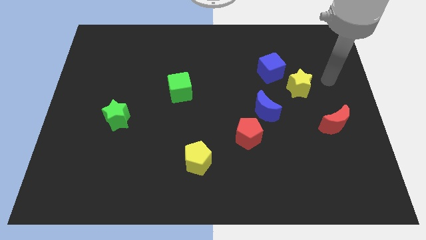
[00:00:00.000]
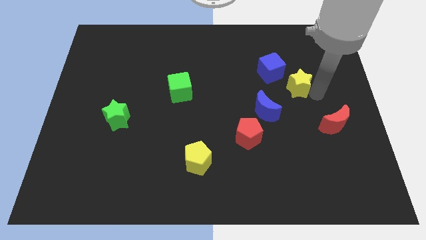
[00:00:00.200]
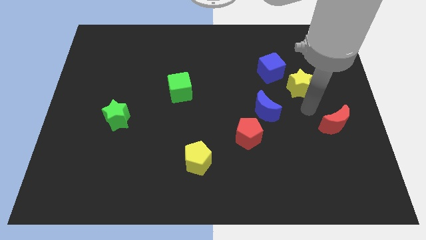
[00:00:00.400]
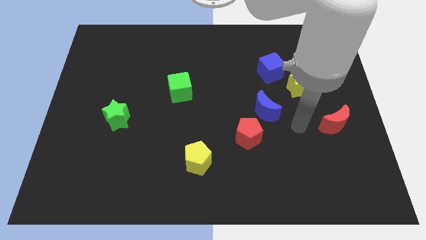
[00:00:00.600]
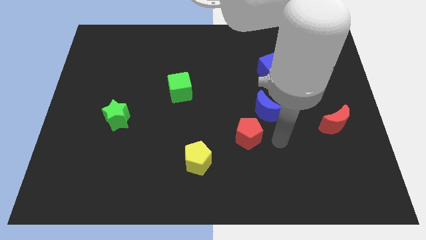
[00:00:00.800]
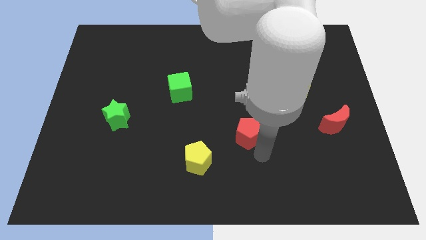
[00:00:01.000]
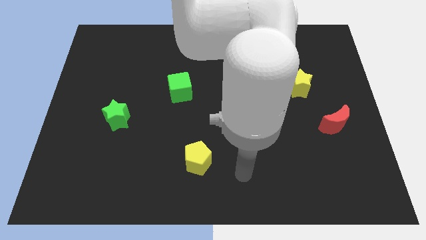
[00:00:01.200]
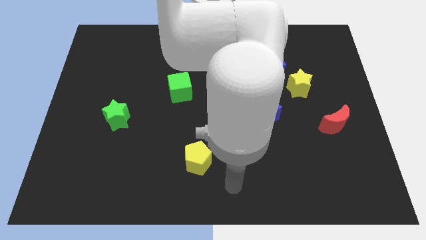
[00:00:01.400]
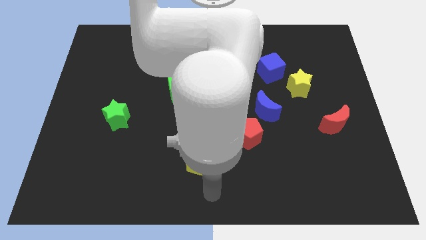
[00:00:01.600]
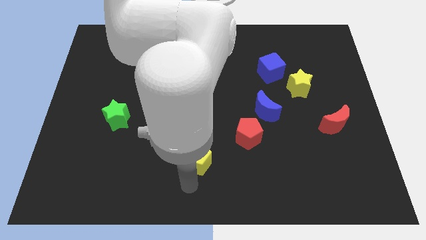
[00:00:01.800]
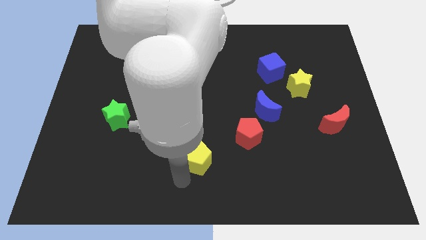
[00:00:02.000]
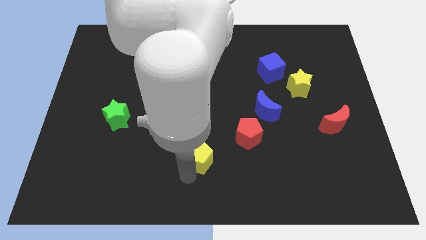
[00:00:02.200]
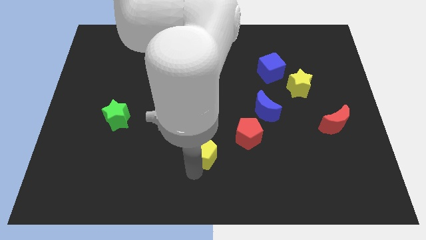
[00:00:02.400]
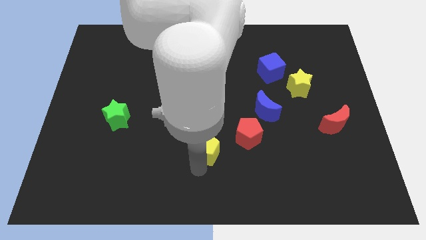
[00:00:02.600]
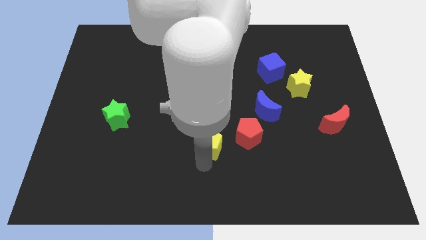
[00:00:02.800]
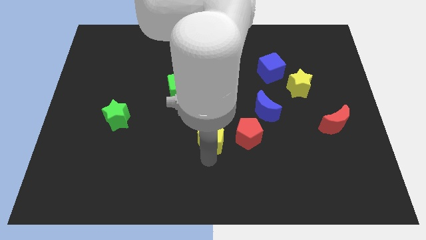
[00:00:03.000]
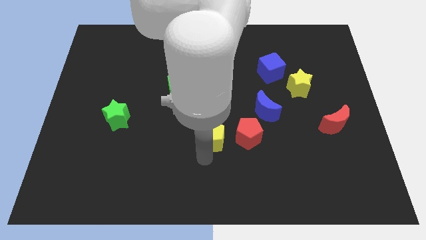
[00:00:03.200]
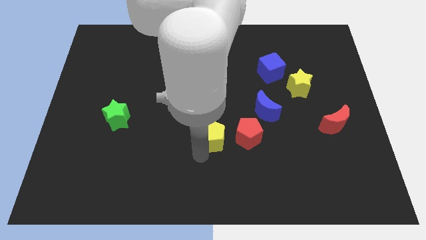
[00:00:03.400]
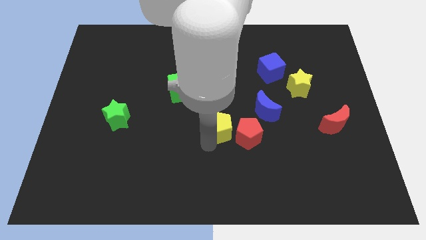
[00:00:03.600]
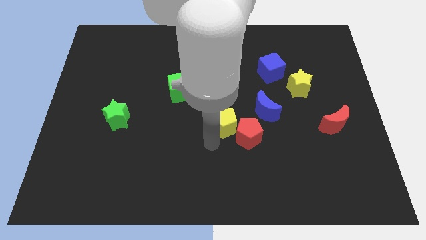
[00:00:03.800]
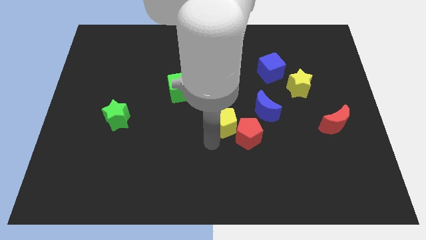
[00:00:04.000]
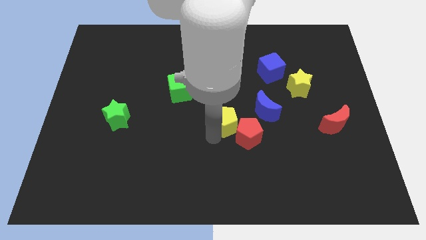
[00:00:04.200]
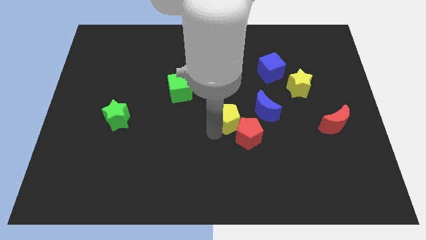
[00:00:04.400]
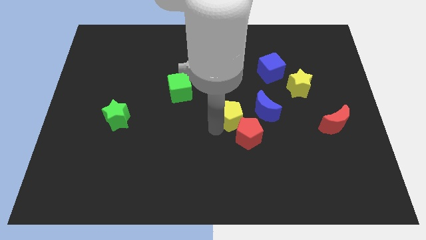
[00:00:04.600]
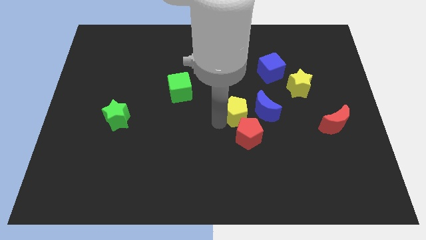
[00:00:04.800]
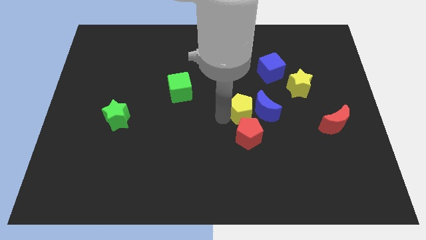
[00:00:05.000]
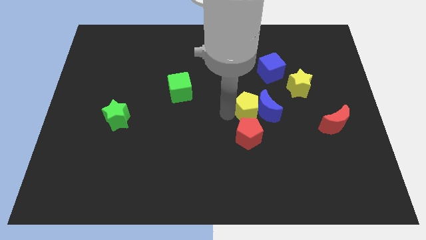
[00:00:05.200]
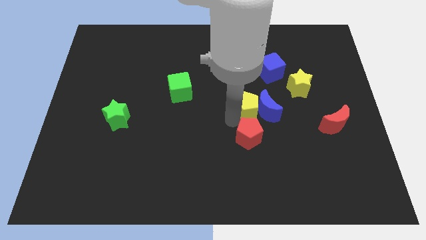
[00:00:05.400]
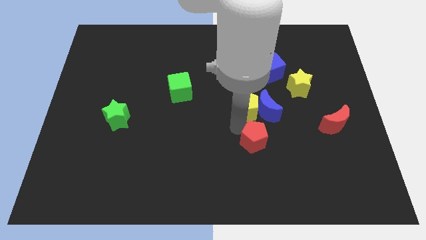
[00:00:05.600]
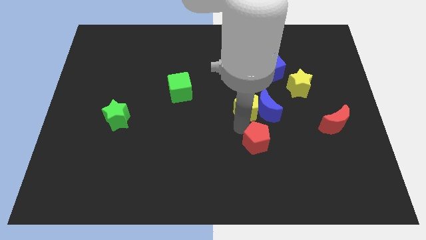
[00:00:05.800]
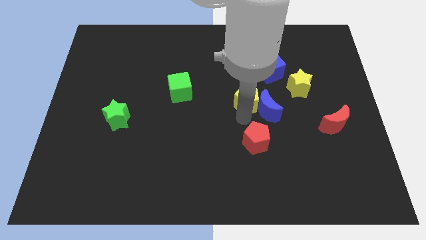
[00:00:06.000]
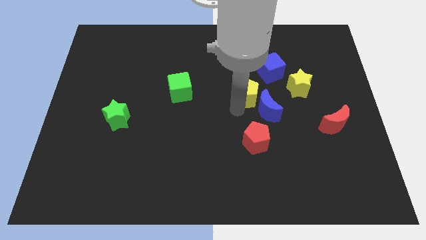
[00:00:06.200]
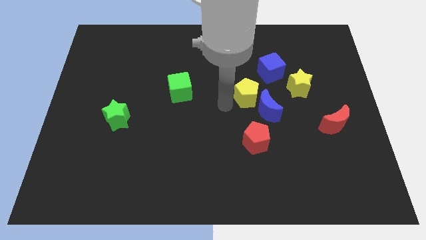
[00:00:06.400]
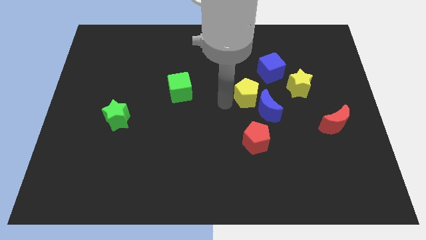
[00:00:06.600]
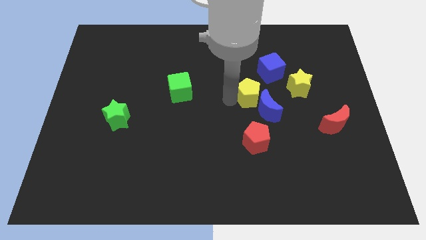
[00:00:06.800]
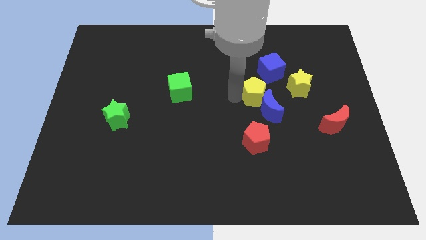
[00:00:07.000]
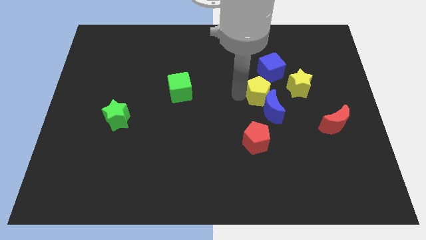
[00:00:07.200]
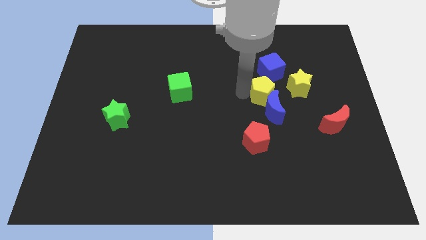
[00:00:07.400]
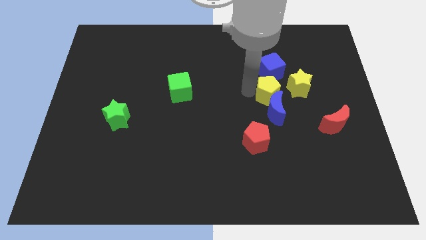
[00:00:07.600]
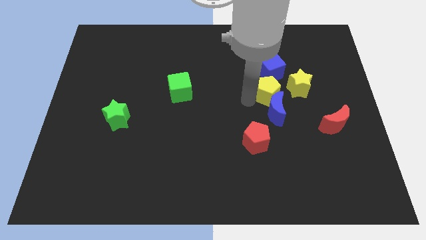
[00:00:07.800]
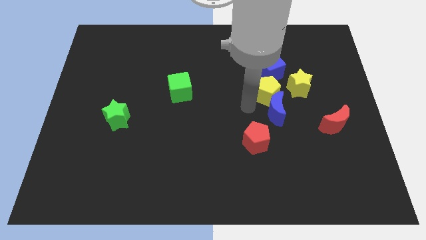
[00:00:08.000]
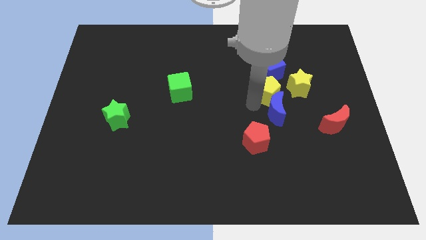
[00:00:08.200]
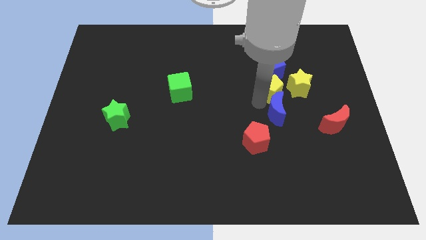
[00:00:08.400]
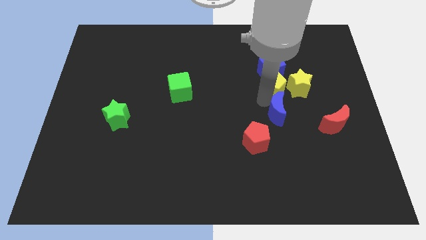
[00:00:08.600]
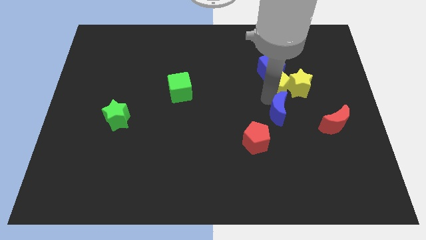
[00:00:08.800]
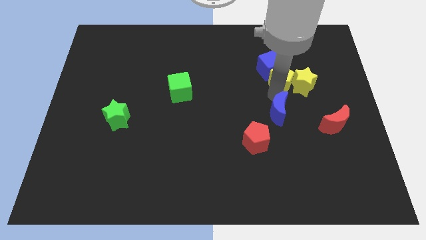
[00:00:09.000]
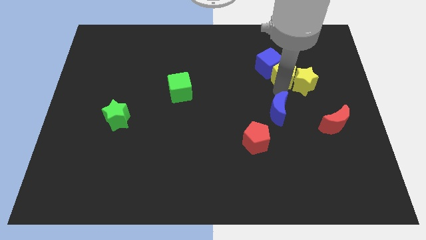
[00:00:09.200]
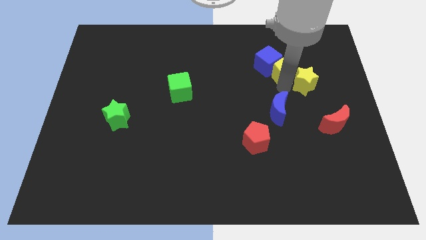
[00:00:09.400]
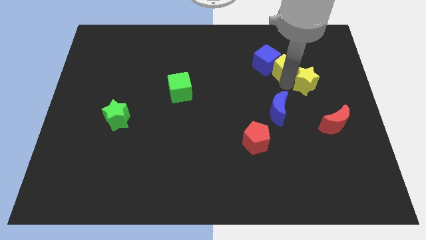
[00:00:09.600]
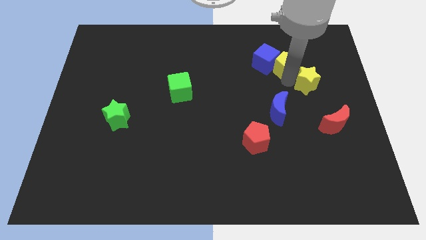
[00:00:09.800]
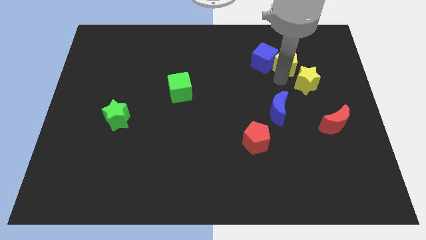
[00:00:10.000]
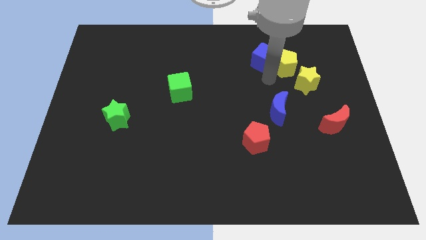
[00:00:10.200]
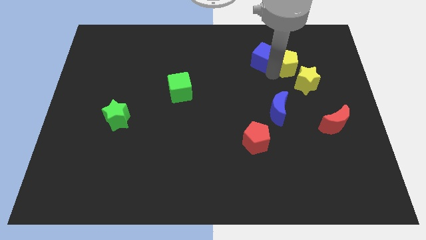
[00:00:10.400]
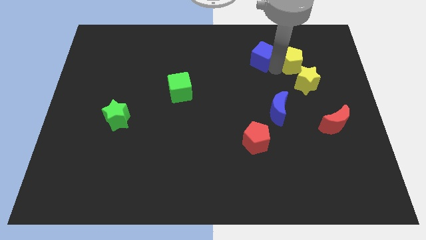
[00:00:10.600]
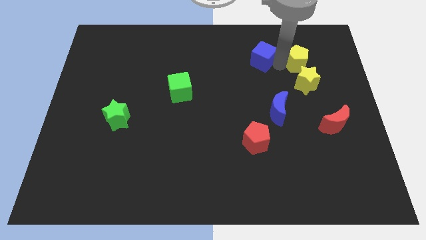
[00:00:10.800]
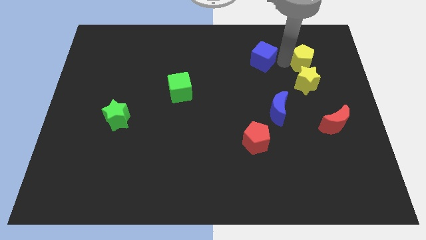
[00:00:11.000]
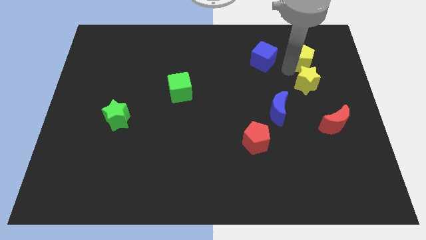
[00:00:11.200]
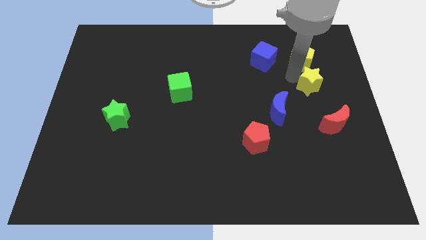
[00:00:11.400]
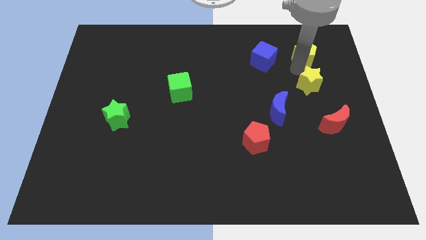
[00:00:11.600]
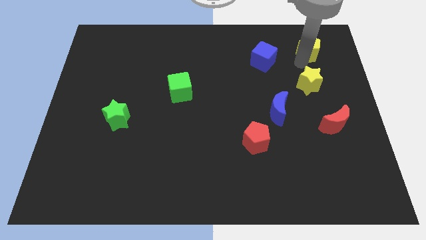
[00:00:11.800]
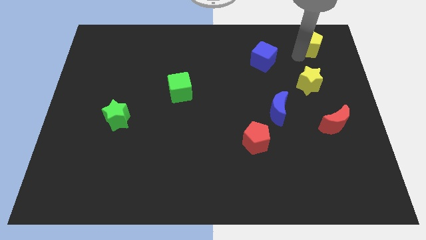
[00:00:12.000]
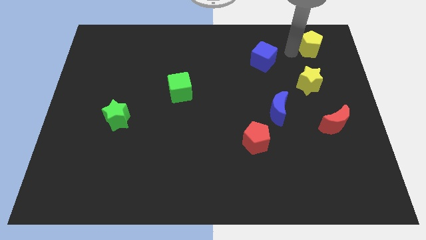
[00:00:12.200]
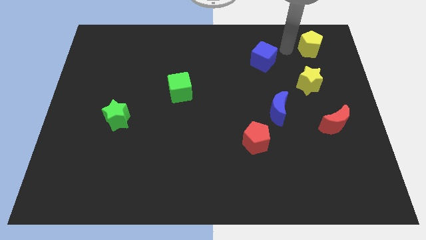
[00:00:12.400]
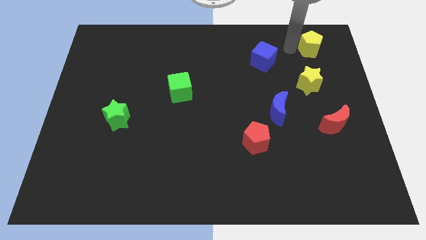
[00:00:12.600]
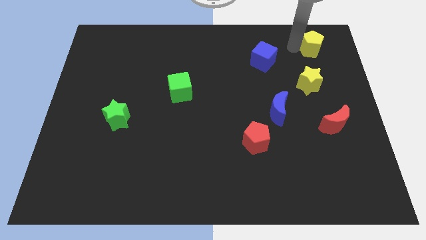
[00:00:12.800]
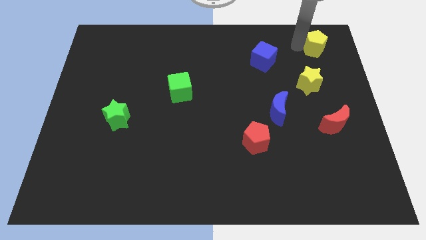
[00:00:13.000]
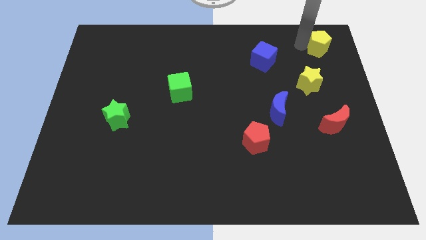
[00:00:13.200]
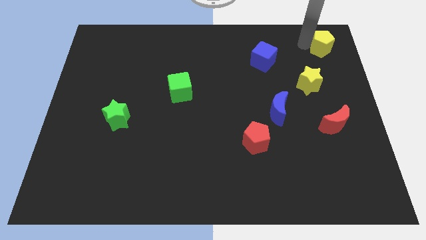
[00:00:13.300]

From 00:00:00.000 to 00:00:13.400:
put the yellow pentagon to the top right of the board
